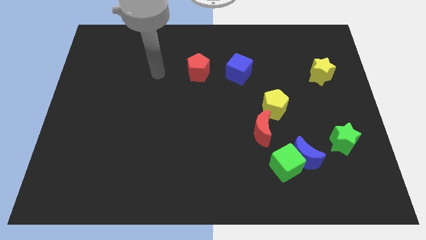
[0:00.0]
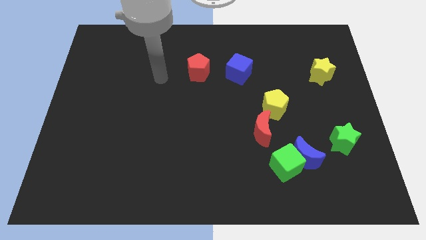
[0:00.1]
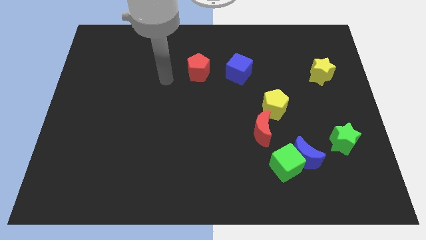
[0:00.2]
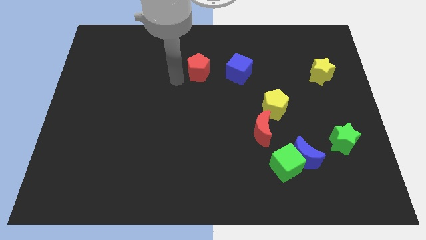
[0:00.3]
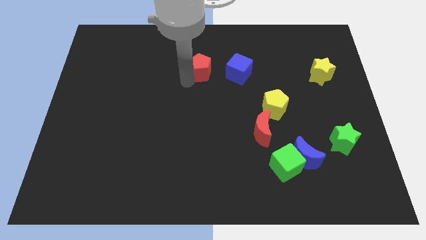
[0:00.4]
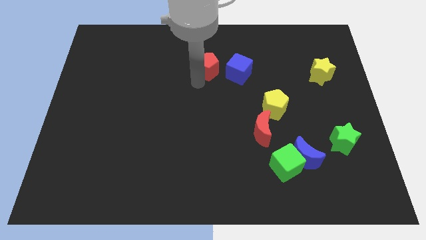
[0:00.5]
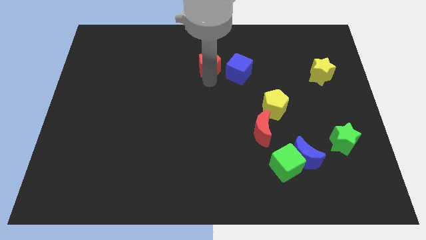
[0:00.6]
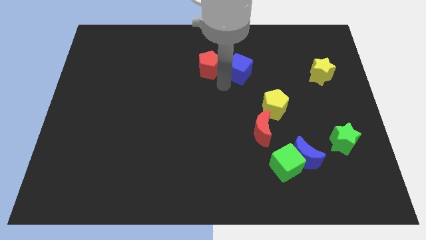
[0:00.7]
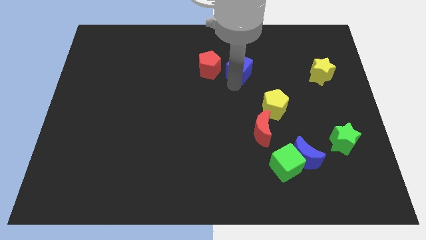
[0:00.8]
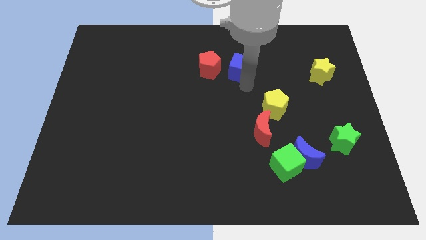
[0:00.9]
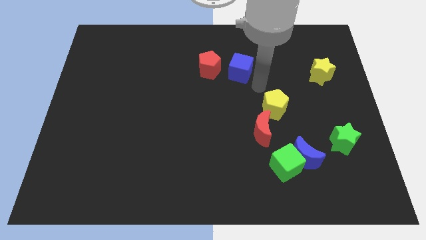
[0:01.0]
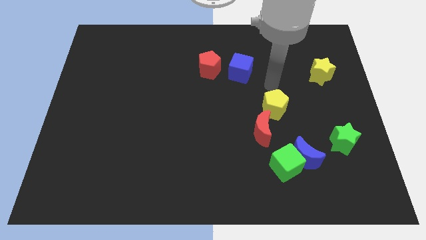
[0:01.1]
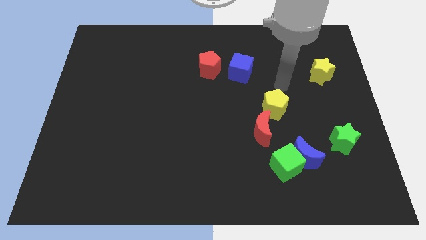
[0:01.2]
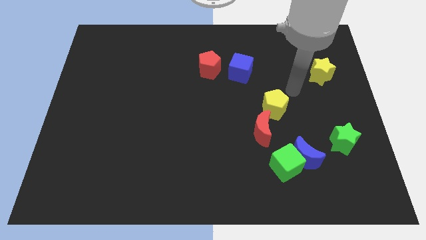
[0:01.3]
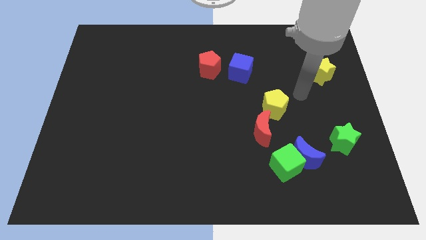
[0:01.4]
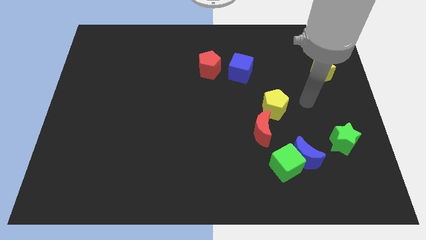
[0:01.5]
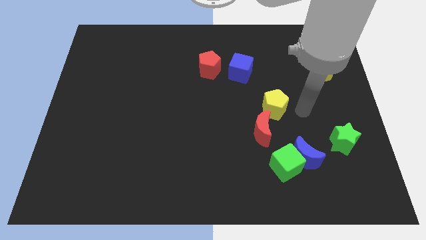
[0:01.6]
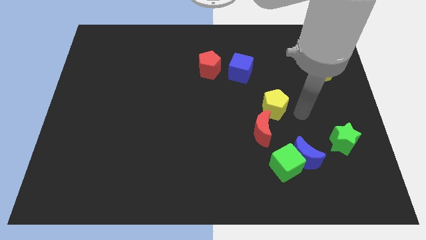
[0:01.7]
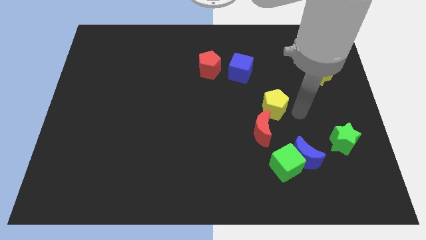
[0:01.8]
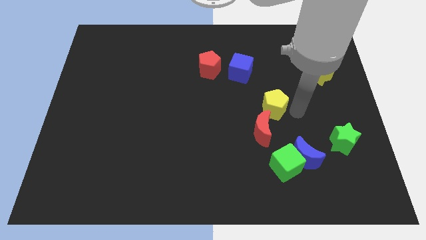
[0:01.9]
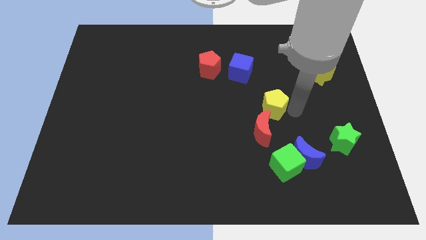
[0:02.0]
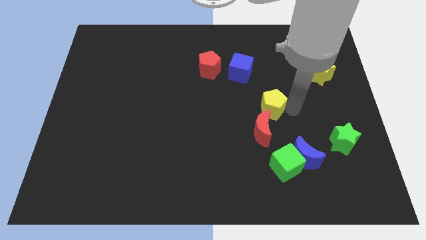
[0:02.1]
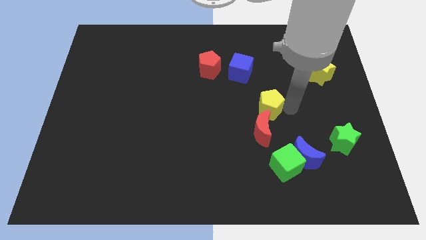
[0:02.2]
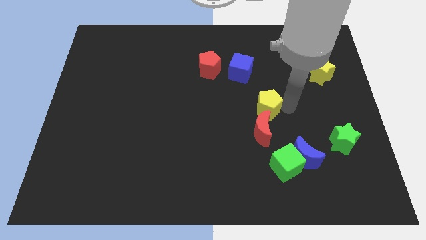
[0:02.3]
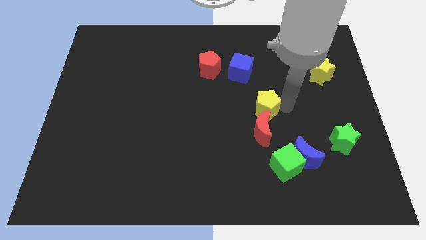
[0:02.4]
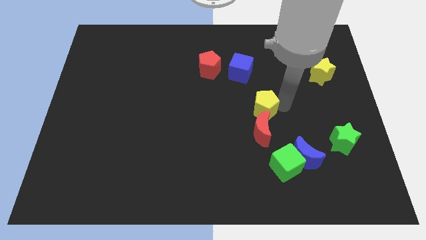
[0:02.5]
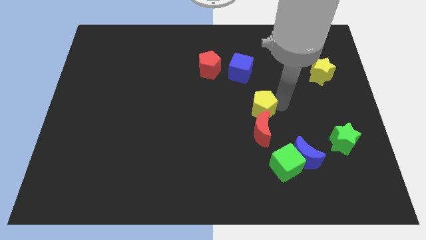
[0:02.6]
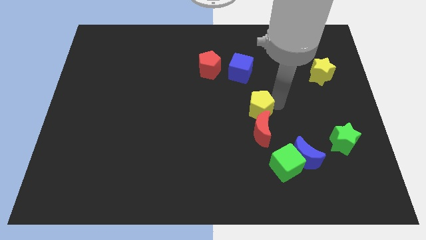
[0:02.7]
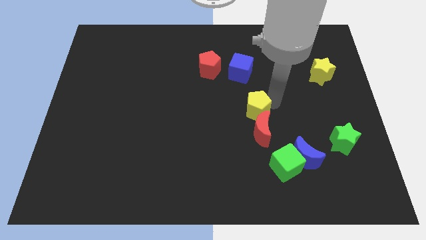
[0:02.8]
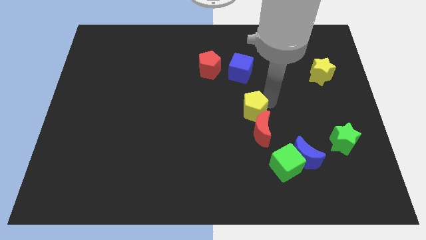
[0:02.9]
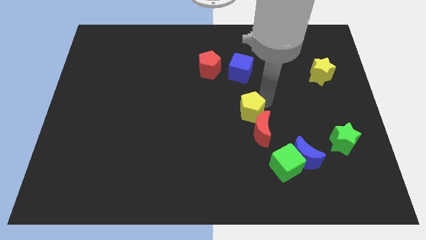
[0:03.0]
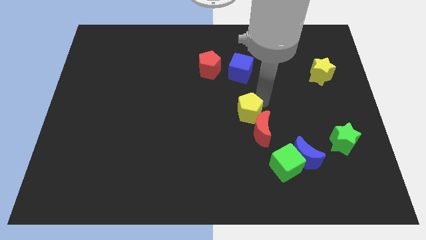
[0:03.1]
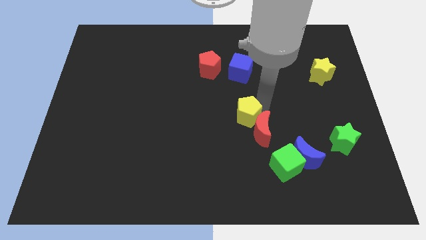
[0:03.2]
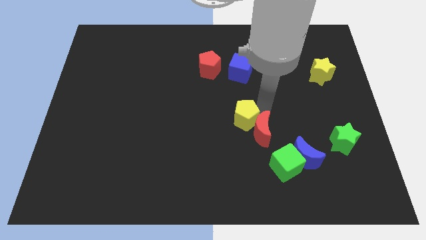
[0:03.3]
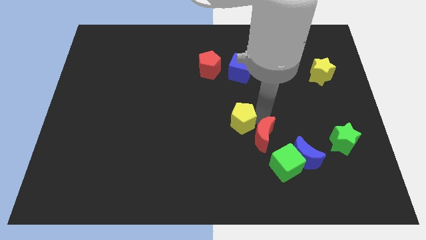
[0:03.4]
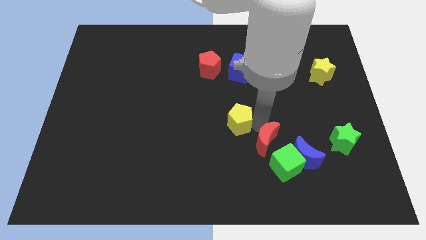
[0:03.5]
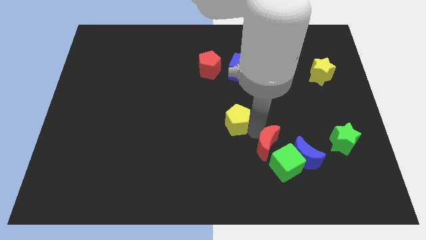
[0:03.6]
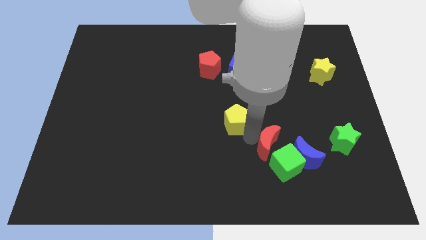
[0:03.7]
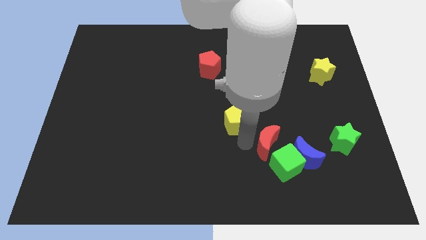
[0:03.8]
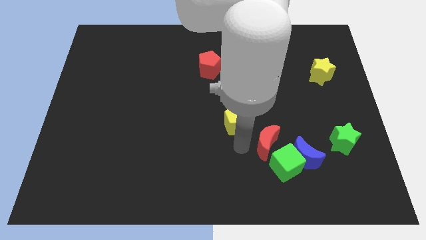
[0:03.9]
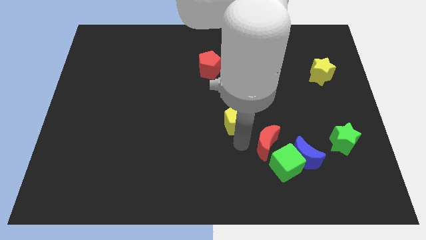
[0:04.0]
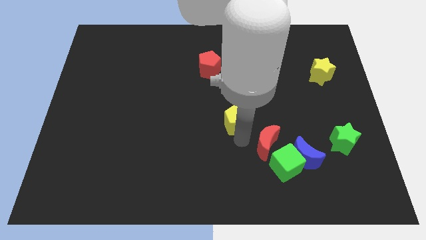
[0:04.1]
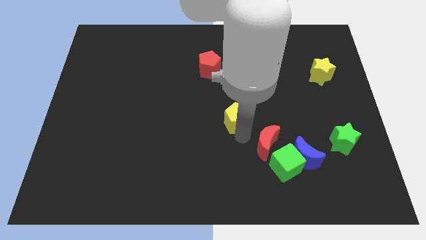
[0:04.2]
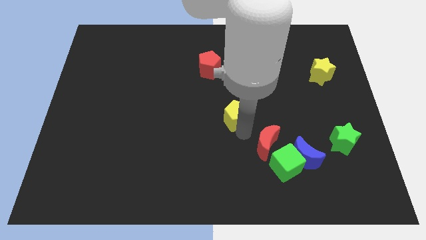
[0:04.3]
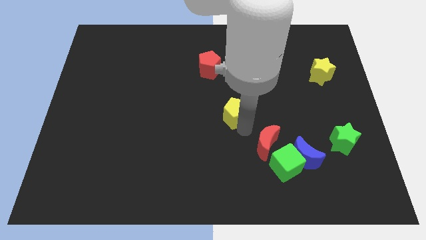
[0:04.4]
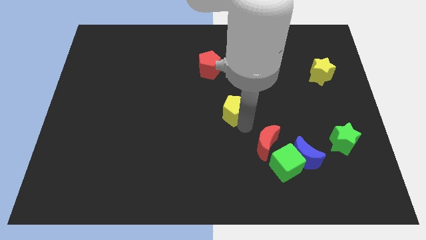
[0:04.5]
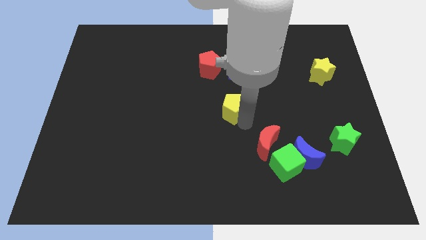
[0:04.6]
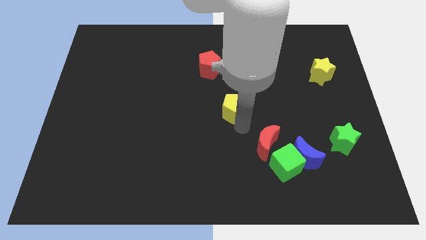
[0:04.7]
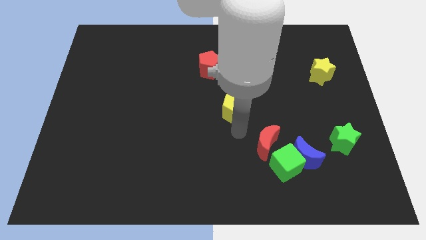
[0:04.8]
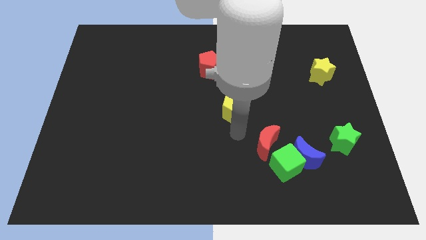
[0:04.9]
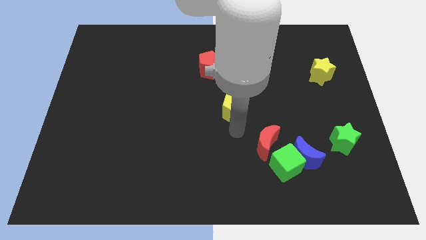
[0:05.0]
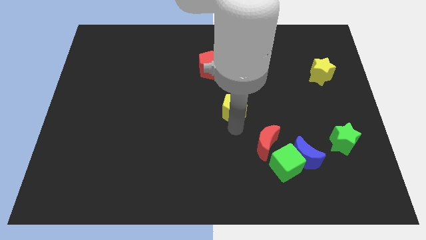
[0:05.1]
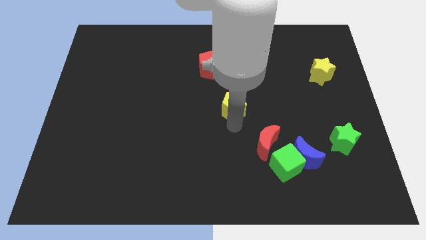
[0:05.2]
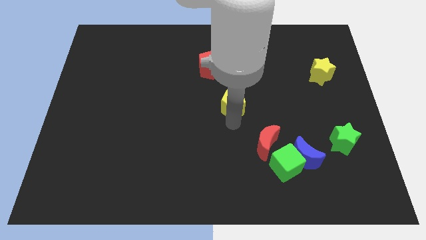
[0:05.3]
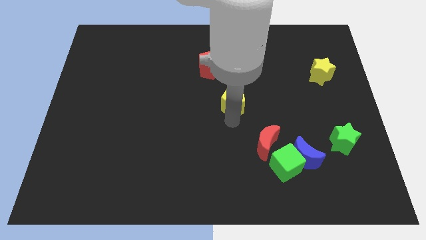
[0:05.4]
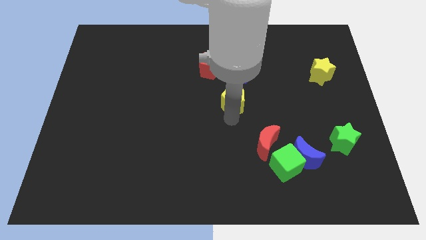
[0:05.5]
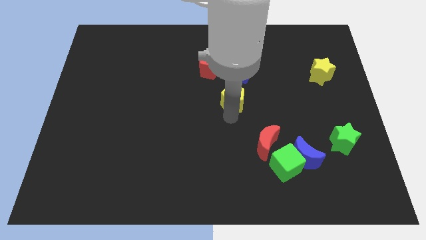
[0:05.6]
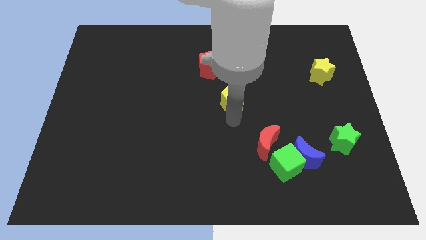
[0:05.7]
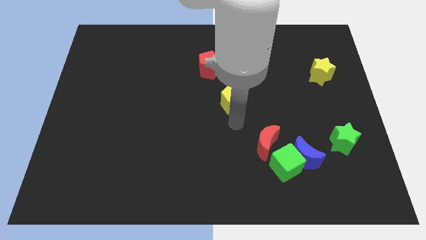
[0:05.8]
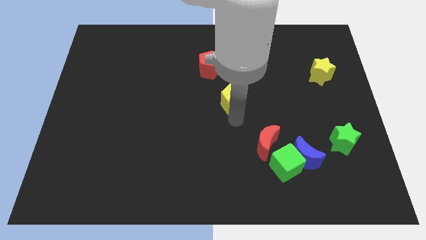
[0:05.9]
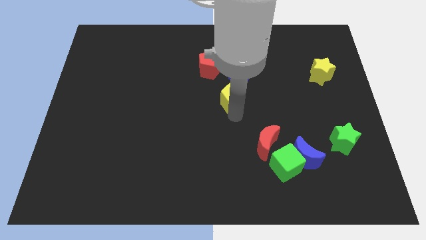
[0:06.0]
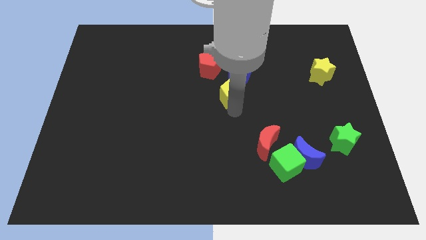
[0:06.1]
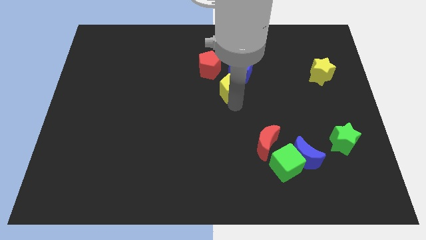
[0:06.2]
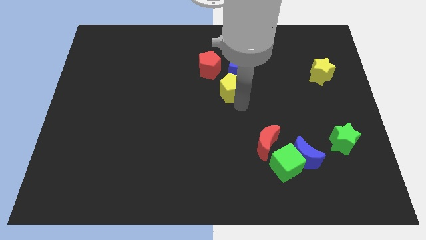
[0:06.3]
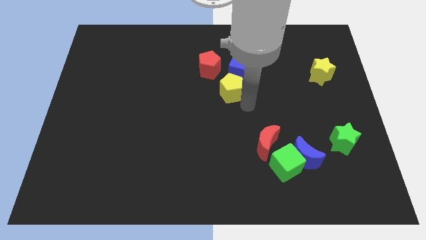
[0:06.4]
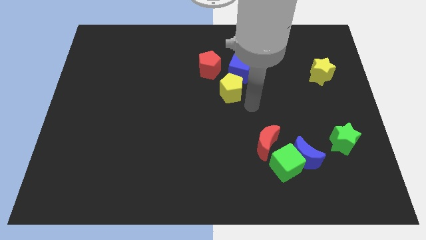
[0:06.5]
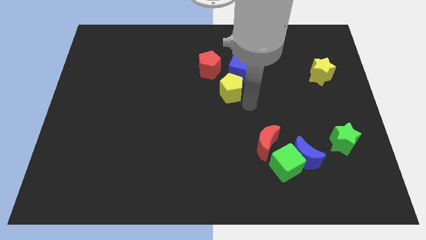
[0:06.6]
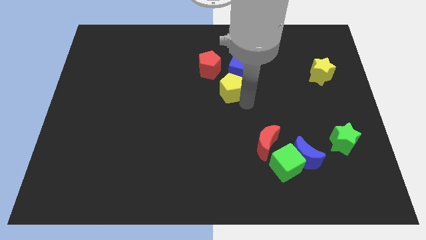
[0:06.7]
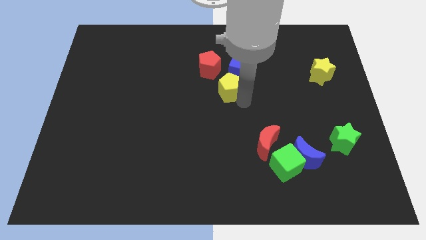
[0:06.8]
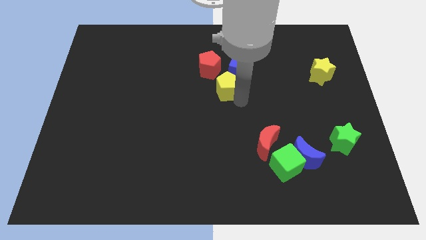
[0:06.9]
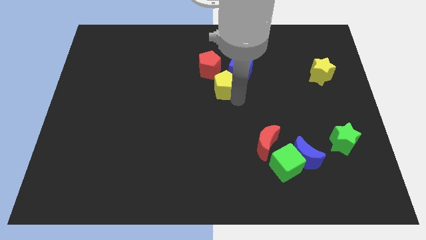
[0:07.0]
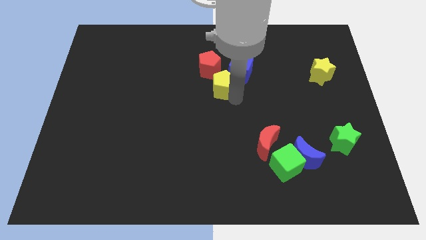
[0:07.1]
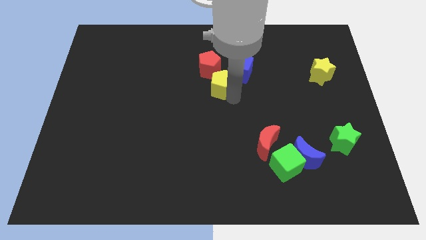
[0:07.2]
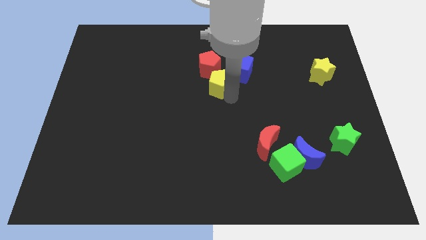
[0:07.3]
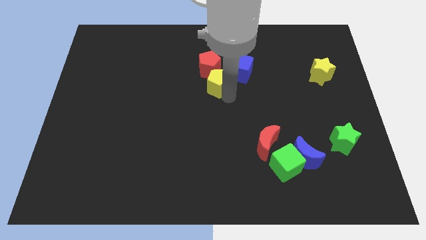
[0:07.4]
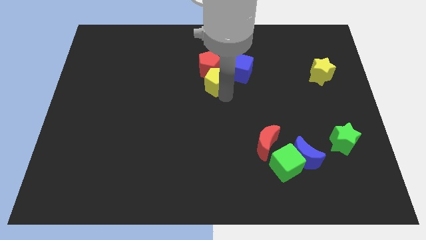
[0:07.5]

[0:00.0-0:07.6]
put the yellow pentagon towards the red pentagon

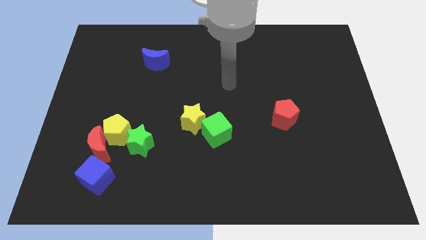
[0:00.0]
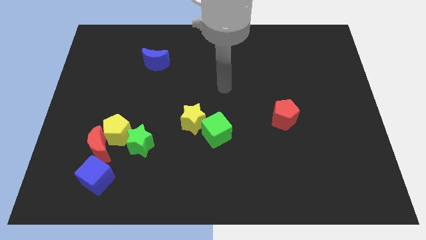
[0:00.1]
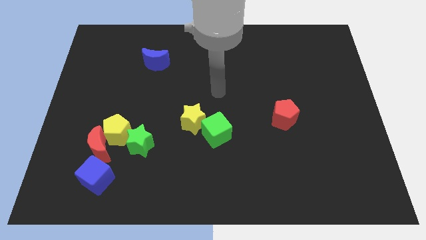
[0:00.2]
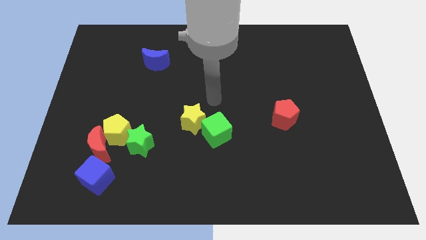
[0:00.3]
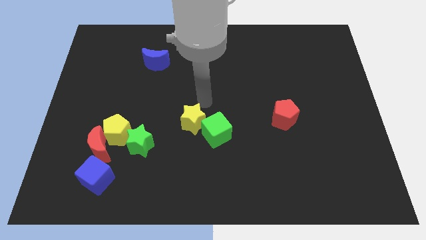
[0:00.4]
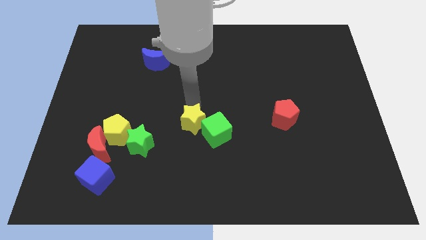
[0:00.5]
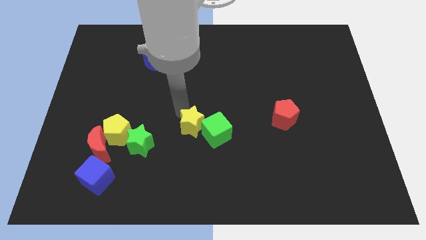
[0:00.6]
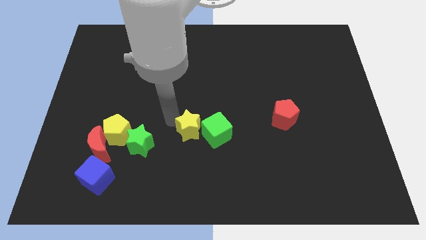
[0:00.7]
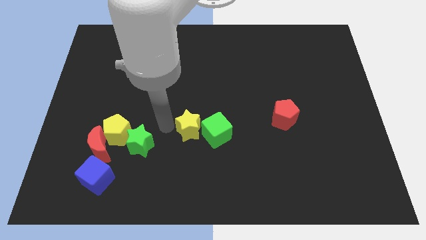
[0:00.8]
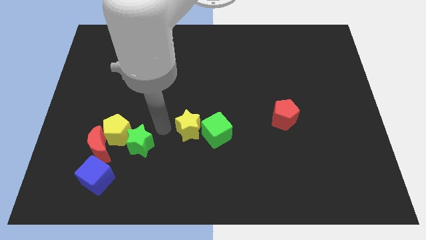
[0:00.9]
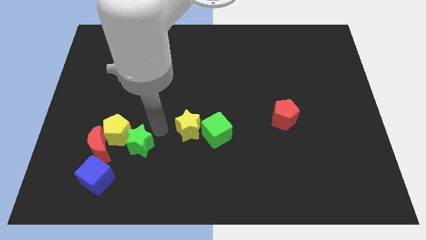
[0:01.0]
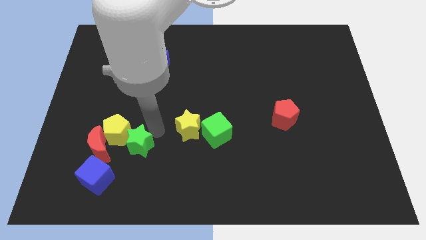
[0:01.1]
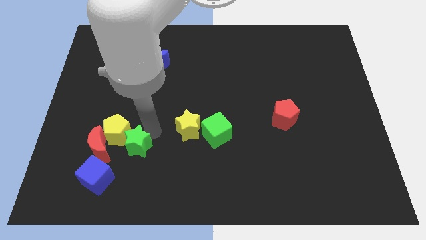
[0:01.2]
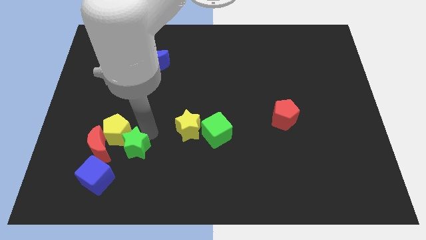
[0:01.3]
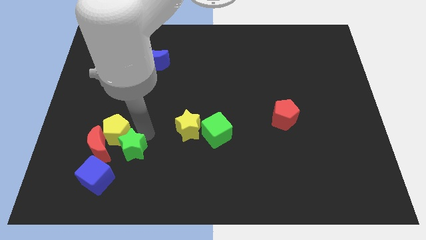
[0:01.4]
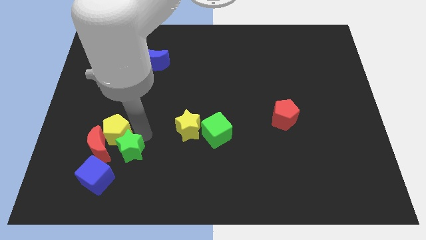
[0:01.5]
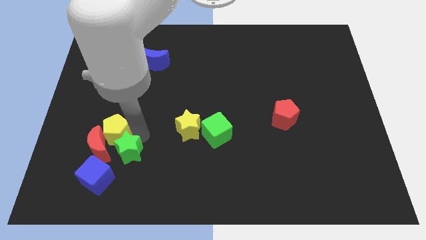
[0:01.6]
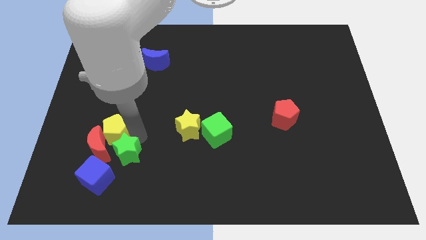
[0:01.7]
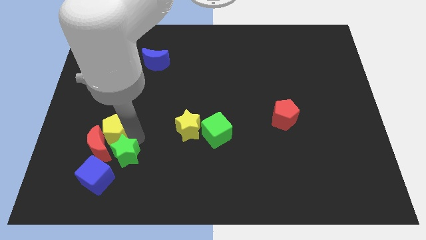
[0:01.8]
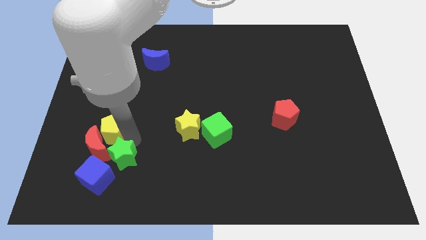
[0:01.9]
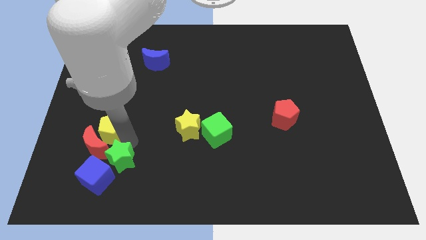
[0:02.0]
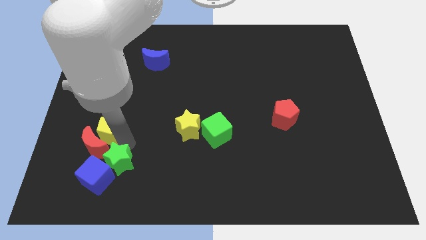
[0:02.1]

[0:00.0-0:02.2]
push the green star towards the blue cube
